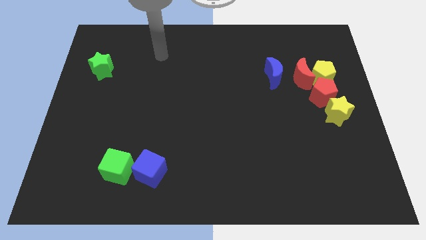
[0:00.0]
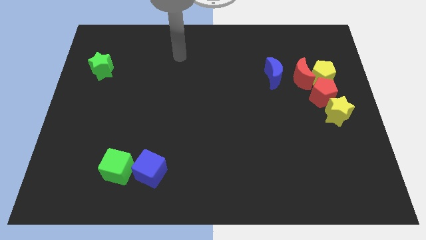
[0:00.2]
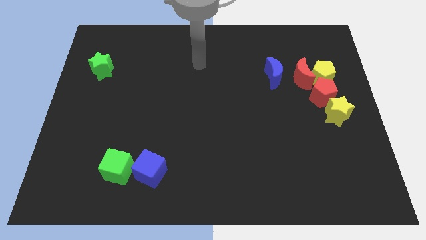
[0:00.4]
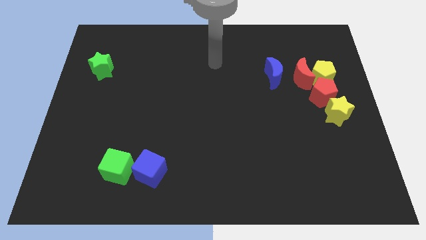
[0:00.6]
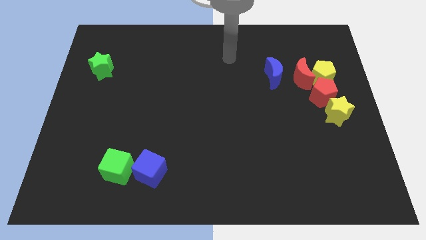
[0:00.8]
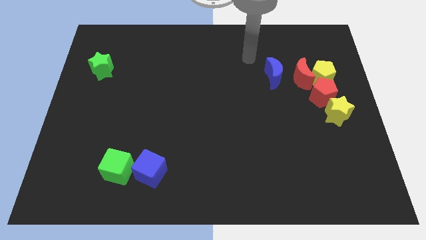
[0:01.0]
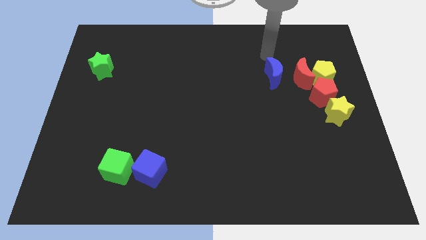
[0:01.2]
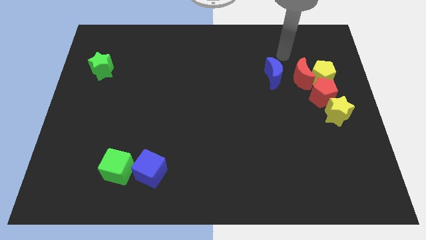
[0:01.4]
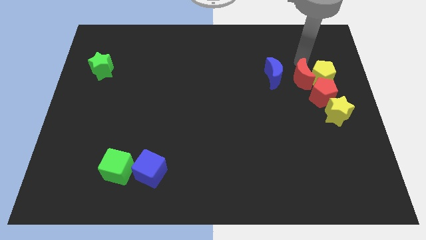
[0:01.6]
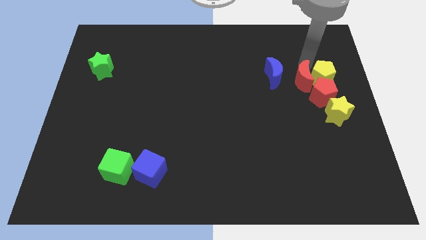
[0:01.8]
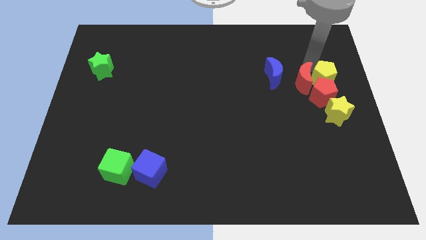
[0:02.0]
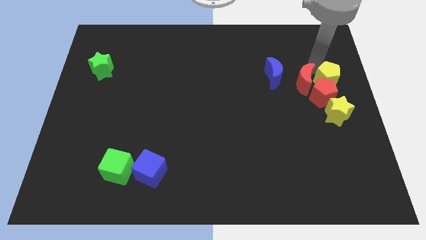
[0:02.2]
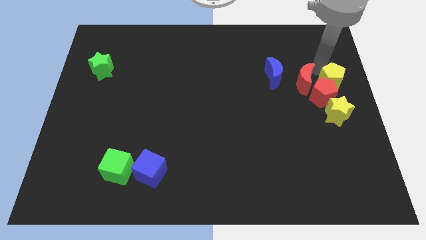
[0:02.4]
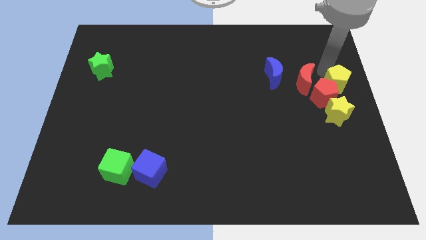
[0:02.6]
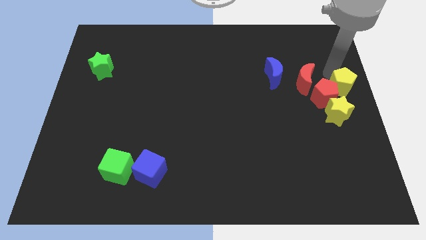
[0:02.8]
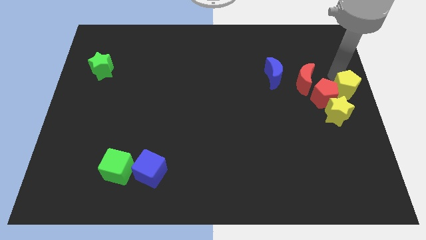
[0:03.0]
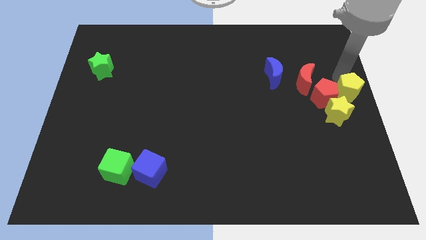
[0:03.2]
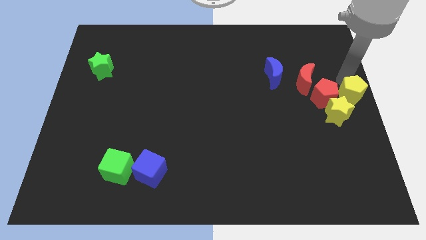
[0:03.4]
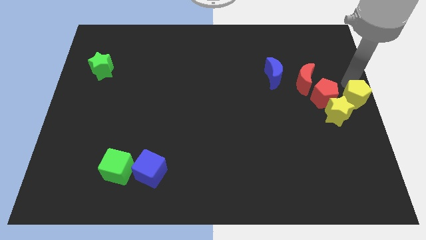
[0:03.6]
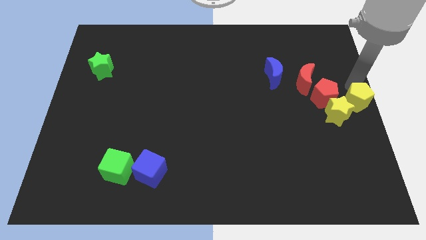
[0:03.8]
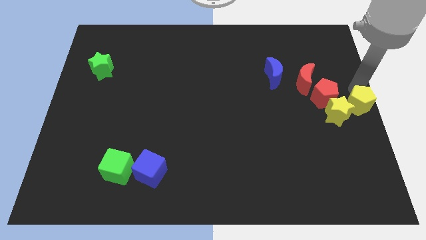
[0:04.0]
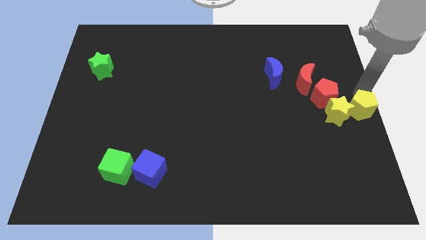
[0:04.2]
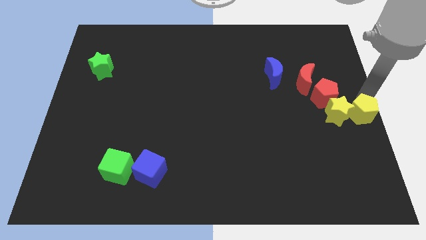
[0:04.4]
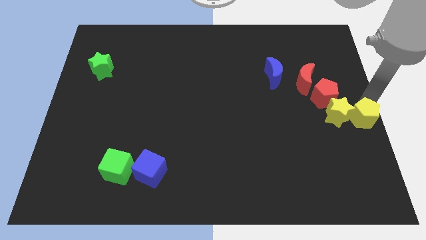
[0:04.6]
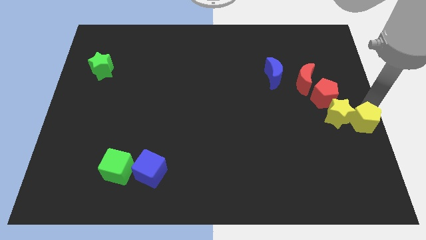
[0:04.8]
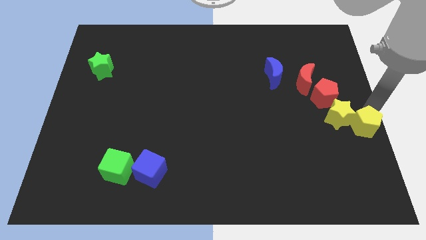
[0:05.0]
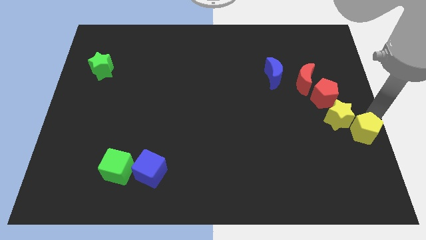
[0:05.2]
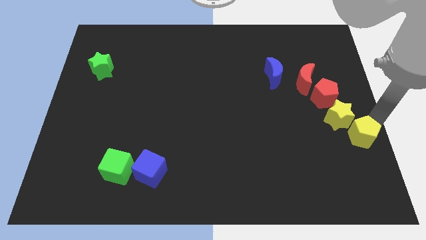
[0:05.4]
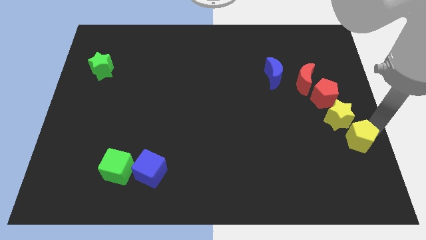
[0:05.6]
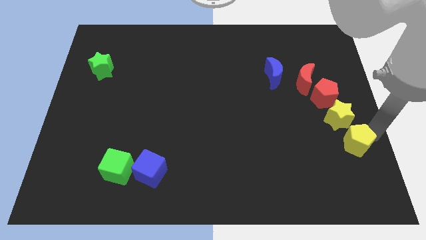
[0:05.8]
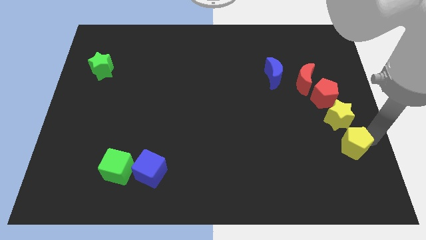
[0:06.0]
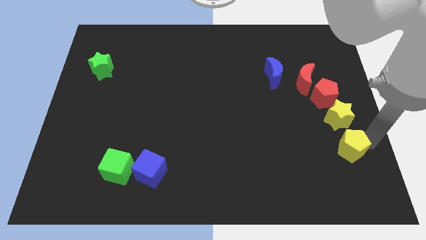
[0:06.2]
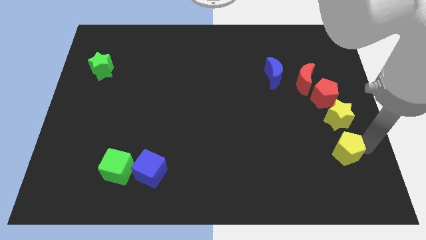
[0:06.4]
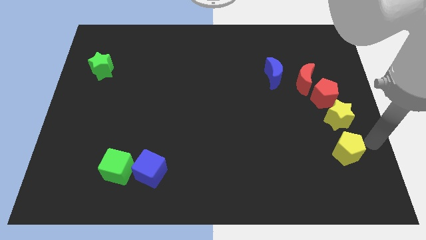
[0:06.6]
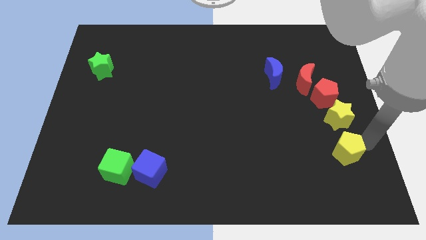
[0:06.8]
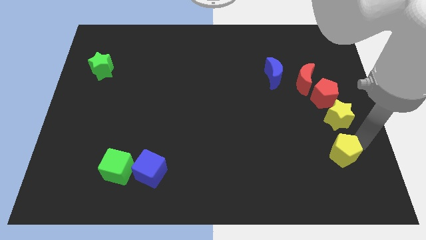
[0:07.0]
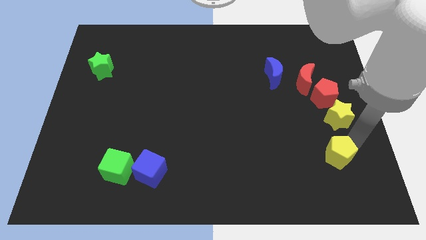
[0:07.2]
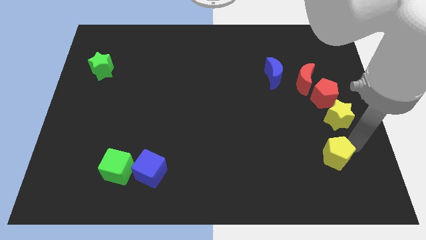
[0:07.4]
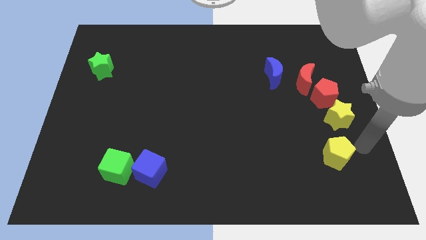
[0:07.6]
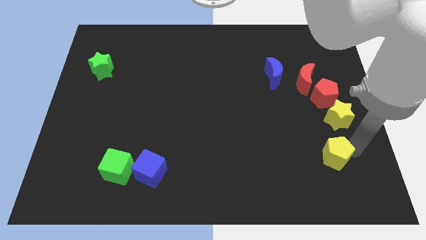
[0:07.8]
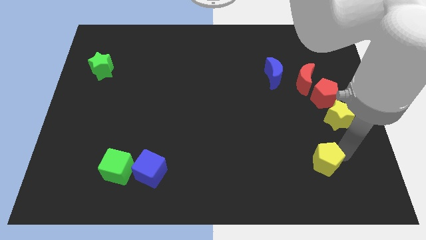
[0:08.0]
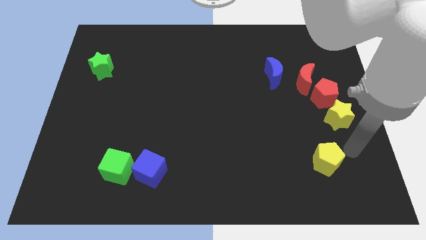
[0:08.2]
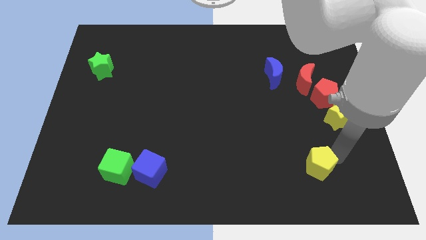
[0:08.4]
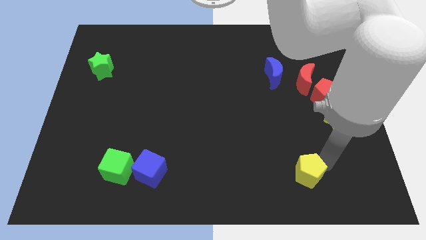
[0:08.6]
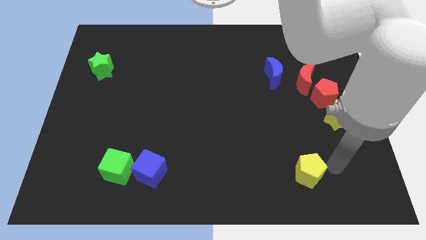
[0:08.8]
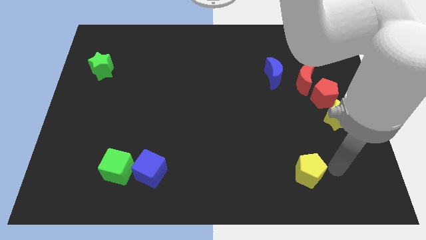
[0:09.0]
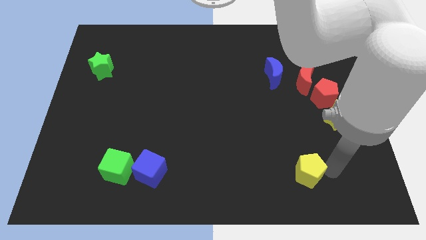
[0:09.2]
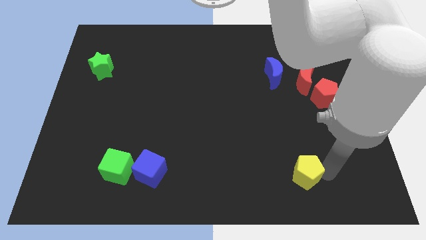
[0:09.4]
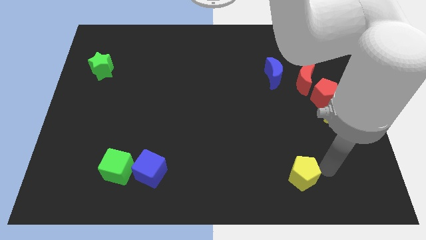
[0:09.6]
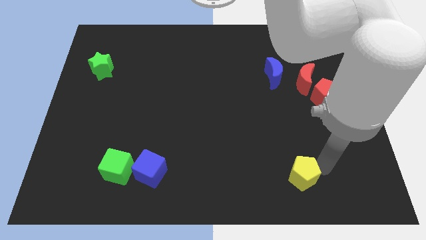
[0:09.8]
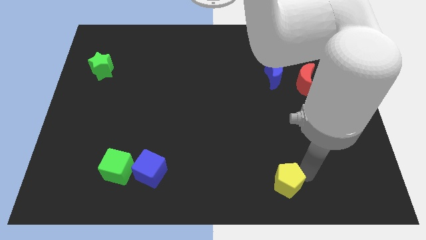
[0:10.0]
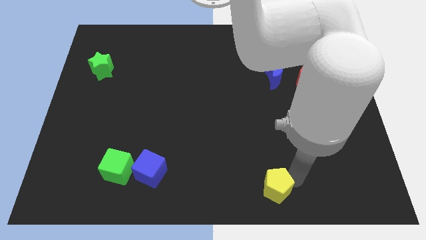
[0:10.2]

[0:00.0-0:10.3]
push the yellow pentagon to the bottom

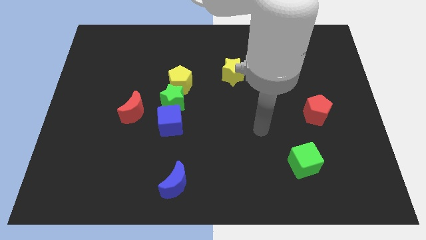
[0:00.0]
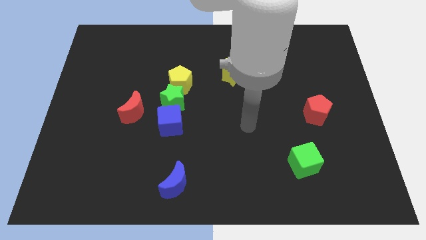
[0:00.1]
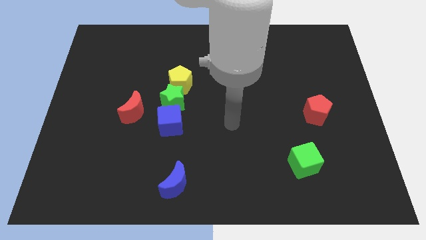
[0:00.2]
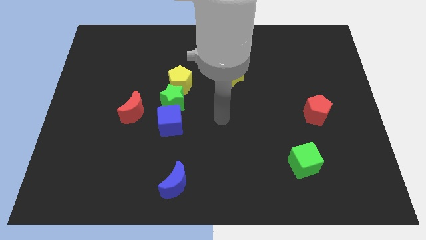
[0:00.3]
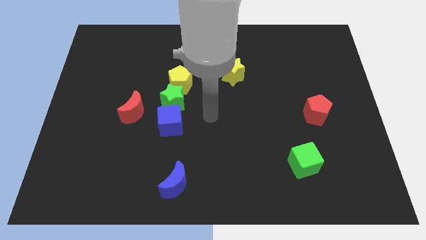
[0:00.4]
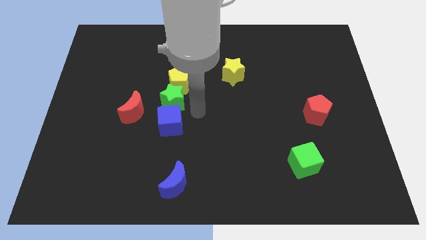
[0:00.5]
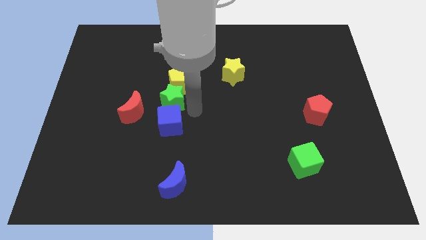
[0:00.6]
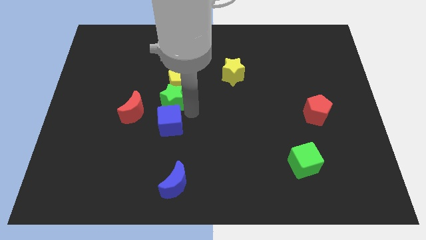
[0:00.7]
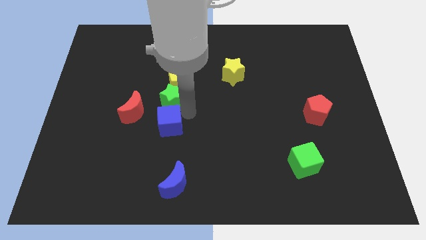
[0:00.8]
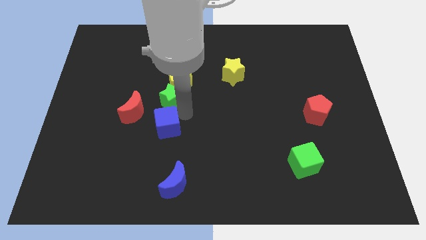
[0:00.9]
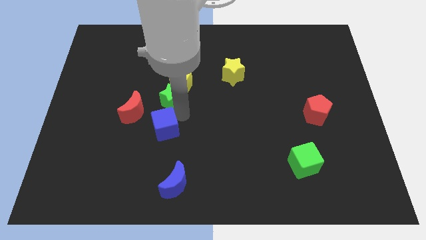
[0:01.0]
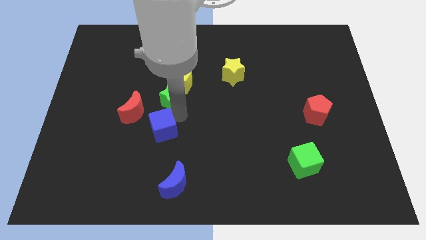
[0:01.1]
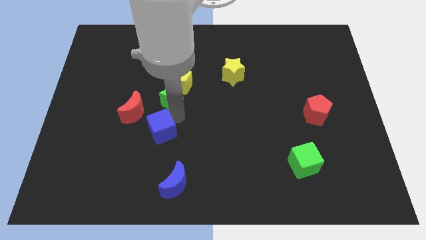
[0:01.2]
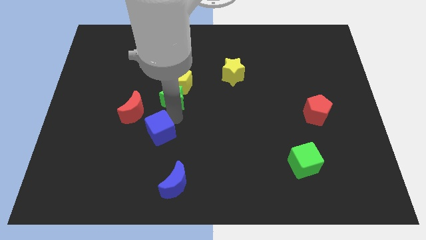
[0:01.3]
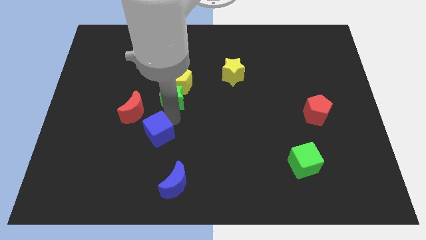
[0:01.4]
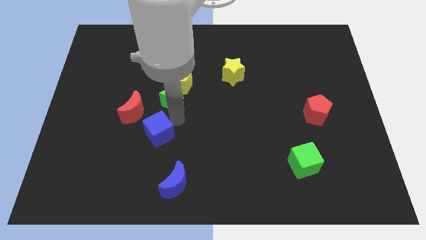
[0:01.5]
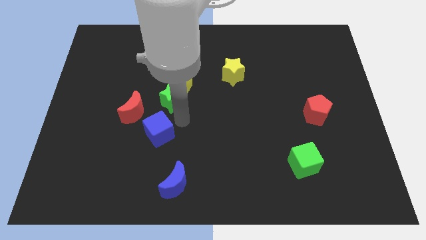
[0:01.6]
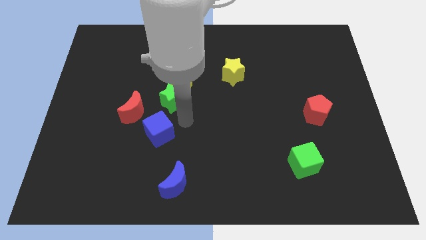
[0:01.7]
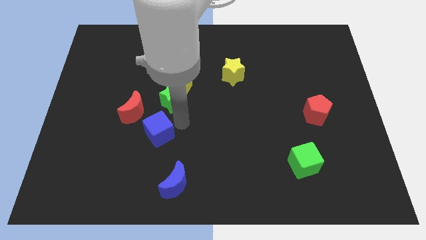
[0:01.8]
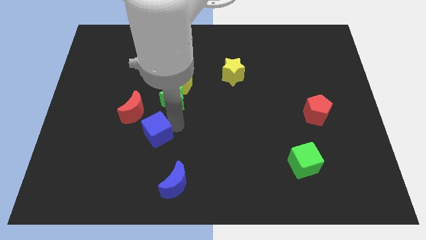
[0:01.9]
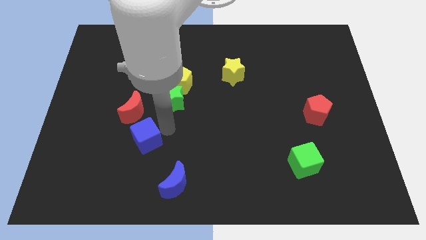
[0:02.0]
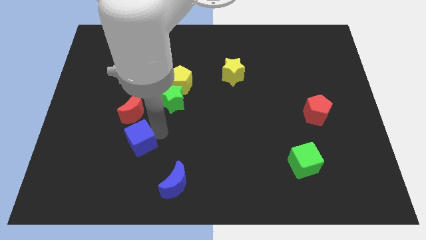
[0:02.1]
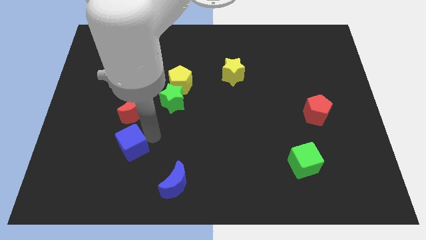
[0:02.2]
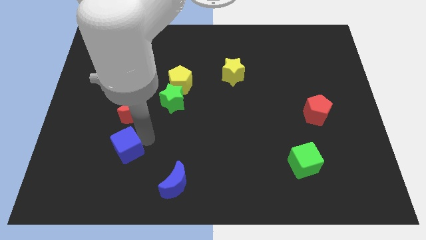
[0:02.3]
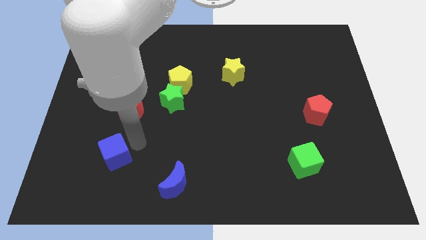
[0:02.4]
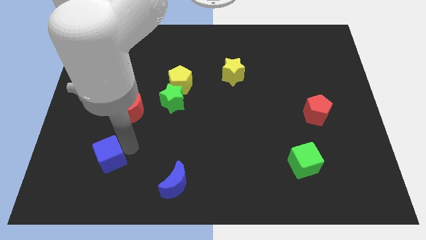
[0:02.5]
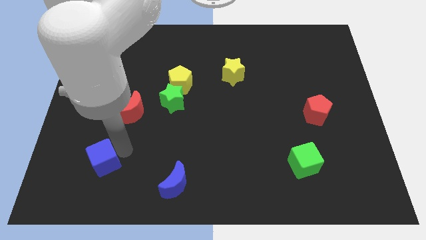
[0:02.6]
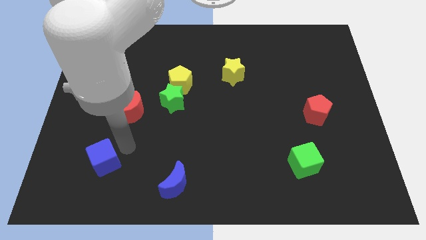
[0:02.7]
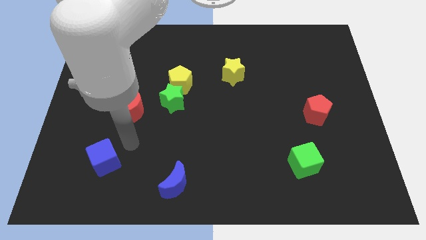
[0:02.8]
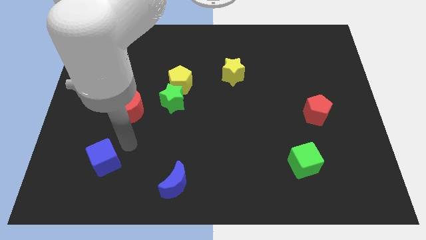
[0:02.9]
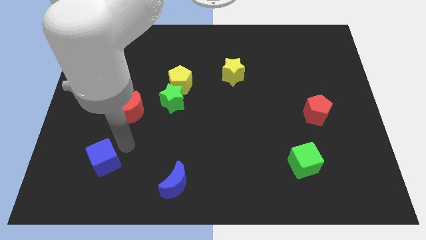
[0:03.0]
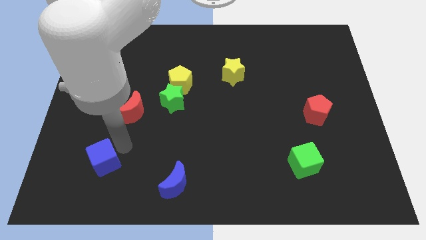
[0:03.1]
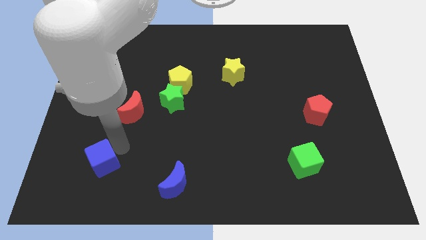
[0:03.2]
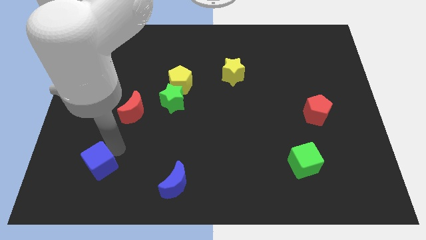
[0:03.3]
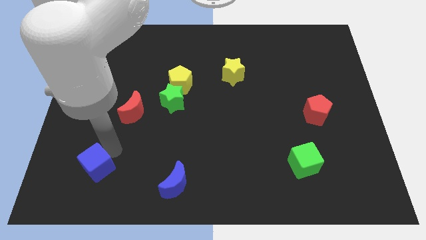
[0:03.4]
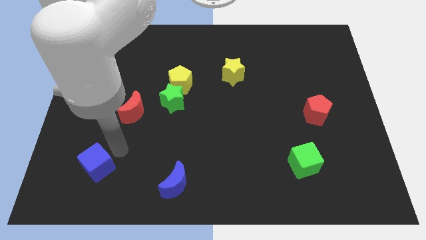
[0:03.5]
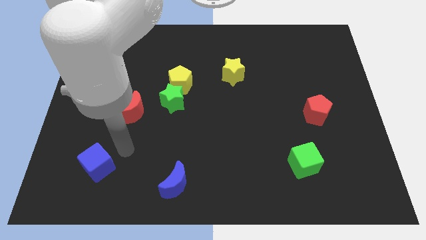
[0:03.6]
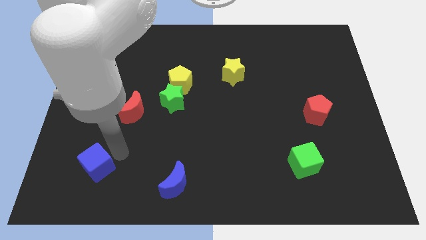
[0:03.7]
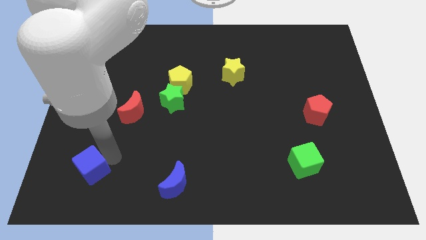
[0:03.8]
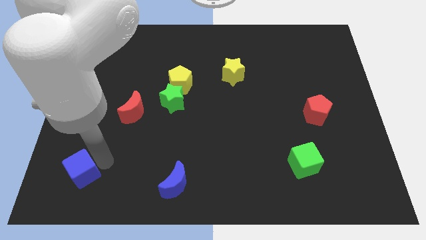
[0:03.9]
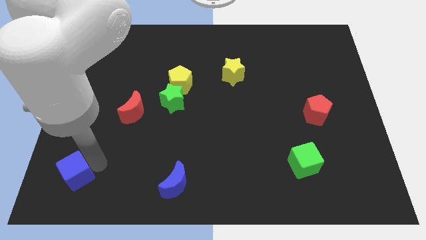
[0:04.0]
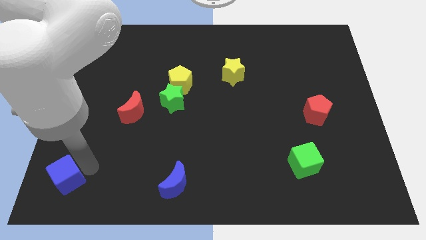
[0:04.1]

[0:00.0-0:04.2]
slide the blue cube to the lower left corner
